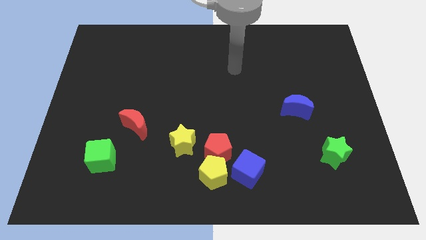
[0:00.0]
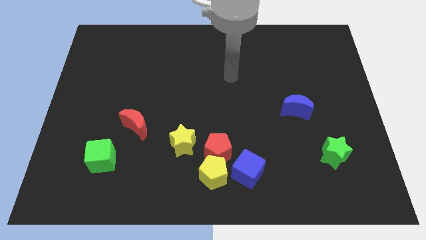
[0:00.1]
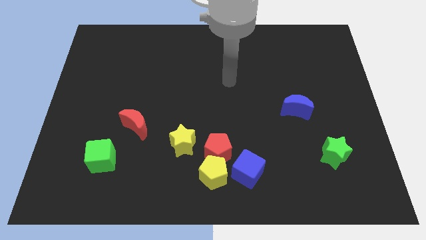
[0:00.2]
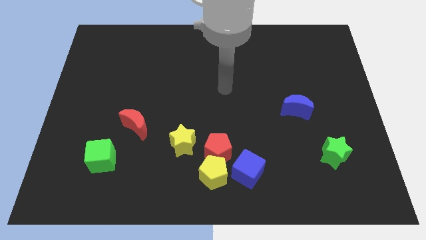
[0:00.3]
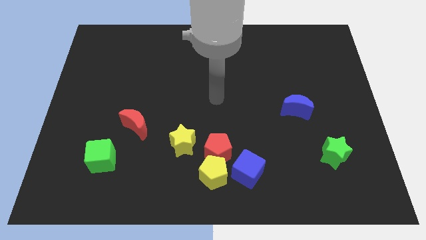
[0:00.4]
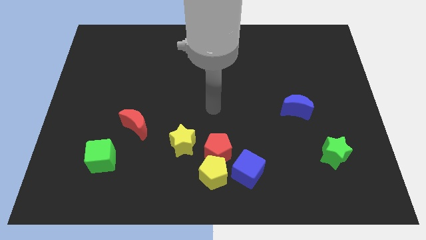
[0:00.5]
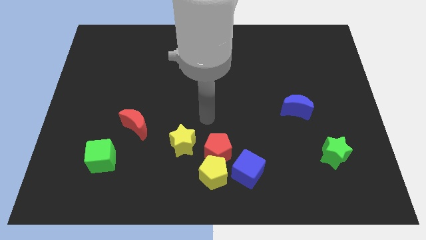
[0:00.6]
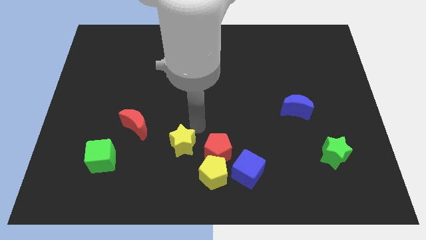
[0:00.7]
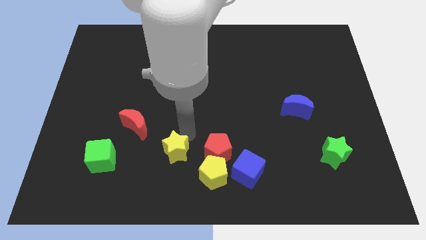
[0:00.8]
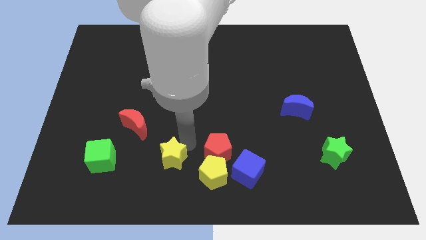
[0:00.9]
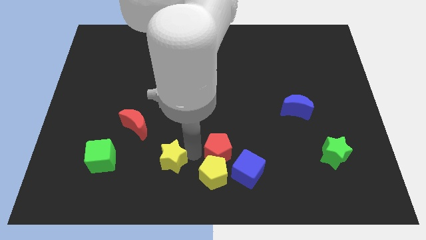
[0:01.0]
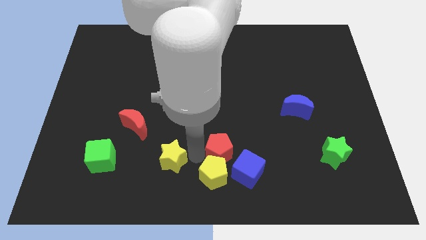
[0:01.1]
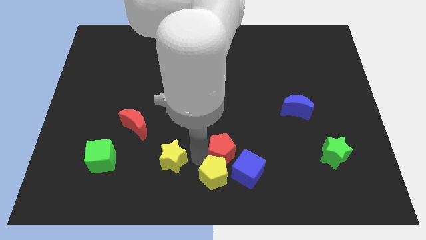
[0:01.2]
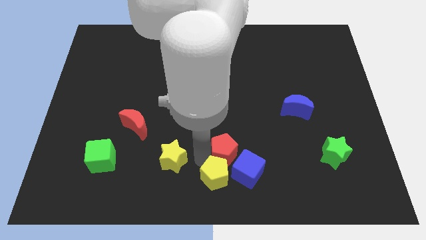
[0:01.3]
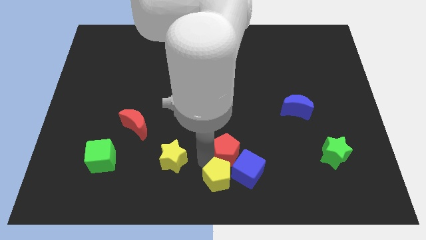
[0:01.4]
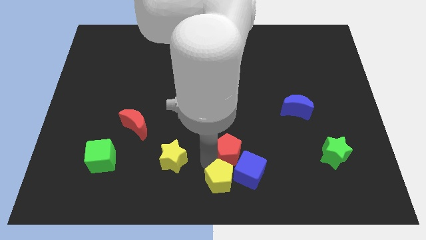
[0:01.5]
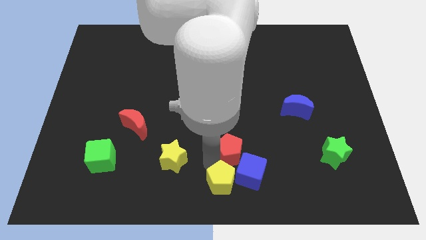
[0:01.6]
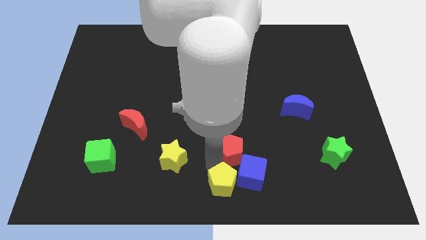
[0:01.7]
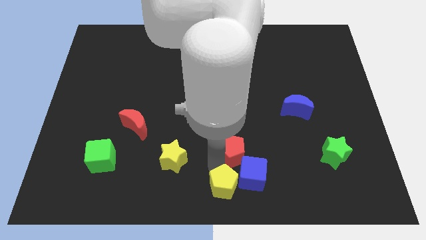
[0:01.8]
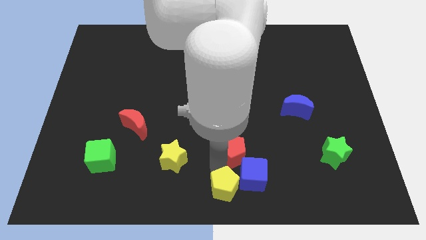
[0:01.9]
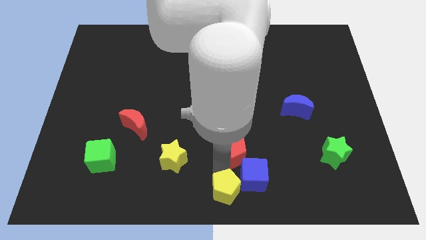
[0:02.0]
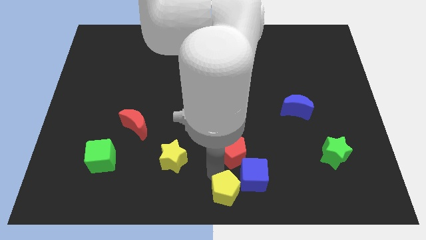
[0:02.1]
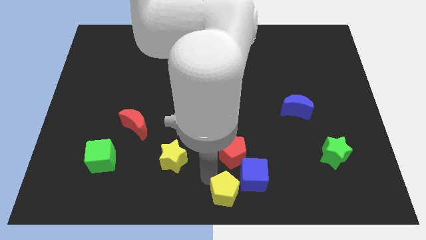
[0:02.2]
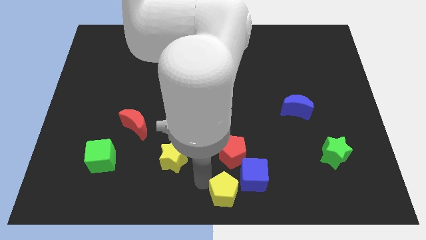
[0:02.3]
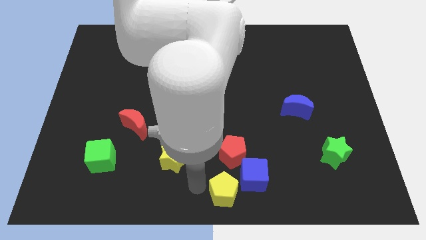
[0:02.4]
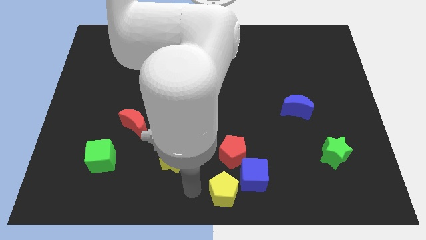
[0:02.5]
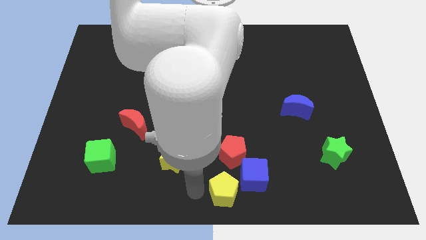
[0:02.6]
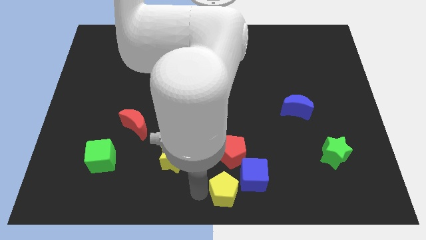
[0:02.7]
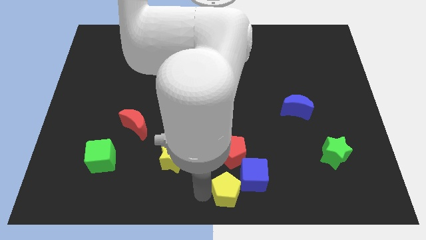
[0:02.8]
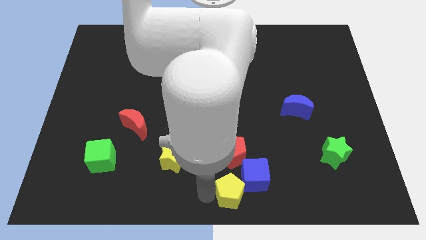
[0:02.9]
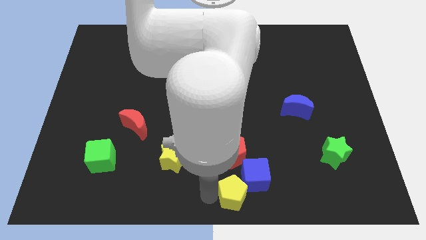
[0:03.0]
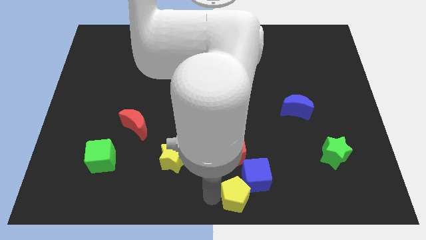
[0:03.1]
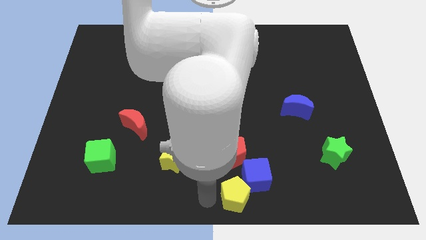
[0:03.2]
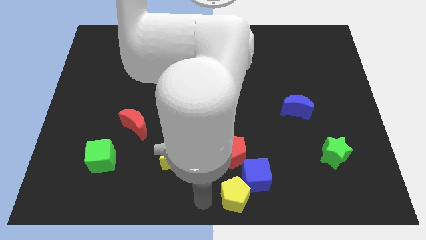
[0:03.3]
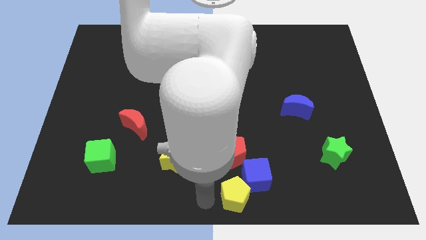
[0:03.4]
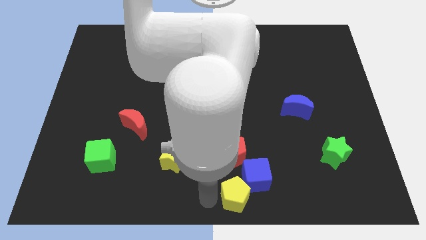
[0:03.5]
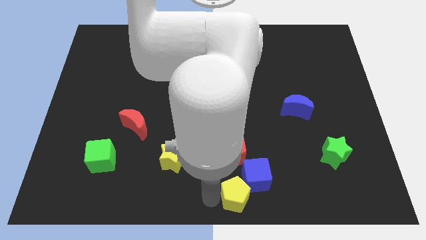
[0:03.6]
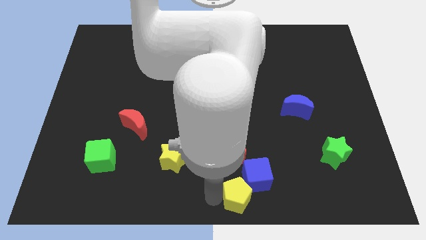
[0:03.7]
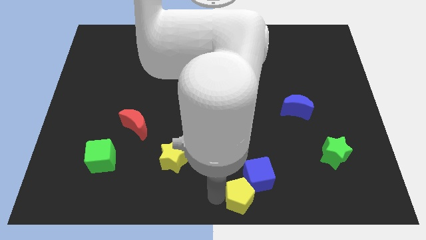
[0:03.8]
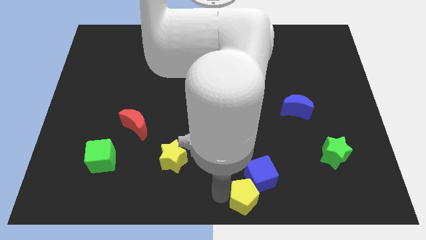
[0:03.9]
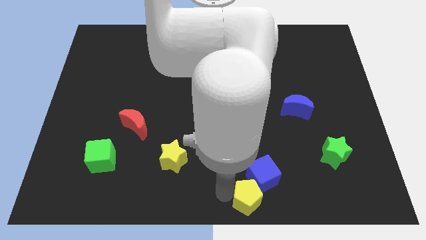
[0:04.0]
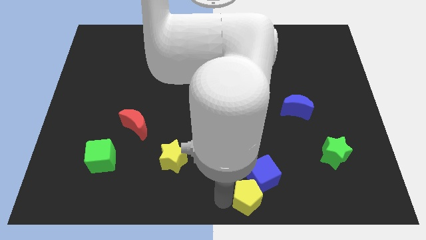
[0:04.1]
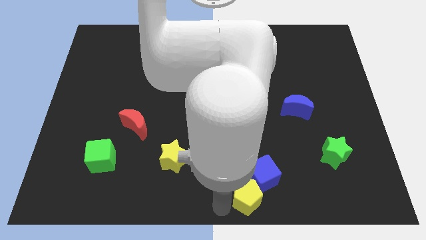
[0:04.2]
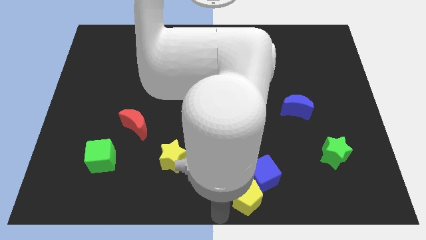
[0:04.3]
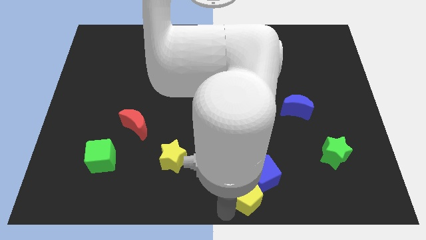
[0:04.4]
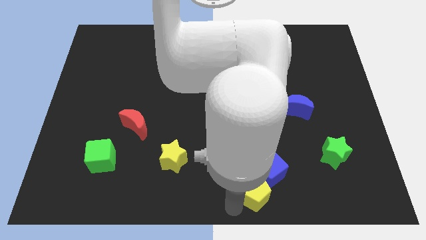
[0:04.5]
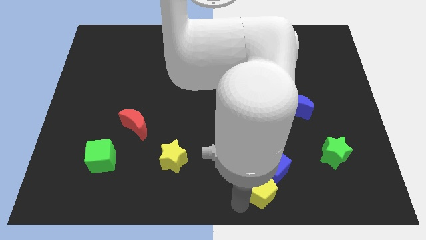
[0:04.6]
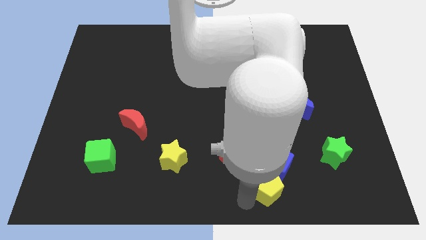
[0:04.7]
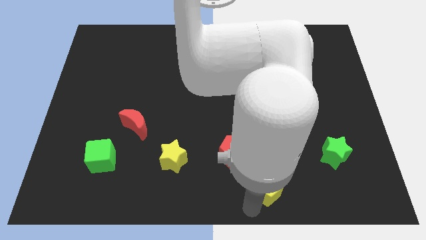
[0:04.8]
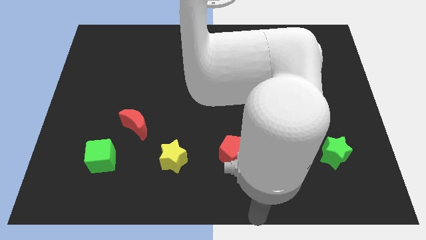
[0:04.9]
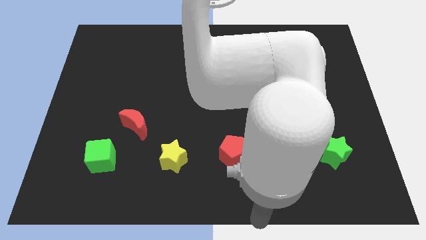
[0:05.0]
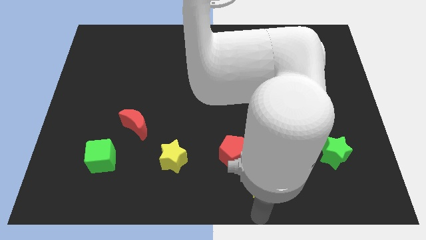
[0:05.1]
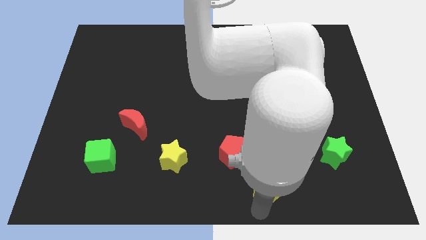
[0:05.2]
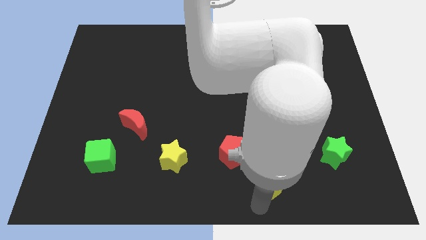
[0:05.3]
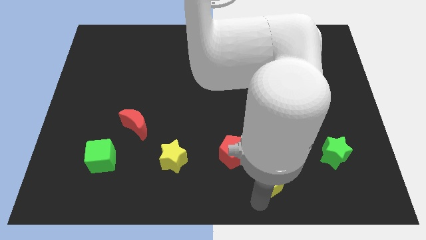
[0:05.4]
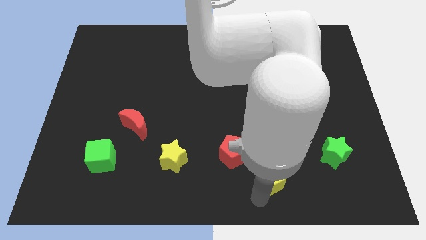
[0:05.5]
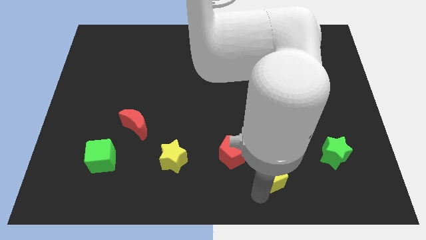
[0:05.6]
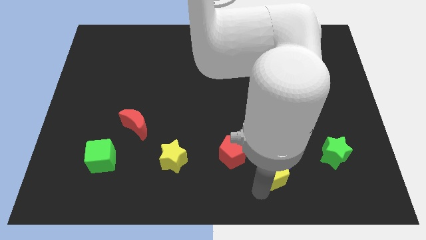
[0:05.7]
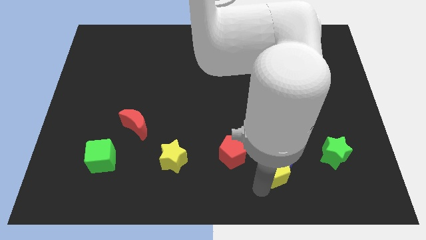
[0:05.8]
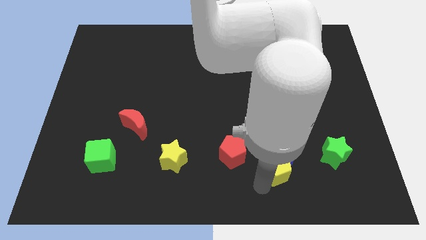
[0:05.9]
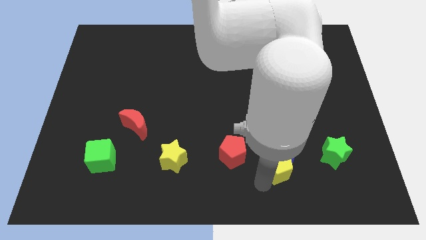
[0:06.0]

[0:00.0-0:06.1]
slightly push the yellow pentagon diagonally upwards and to the right

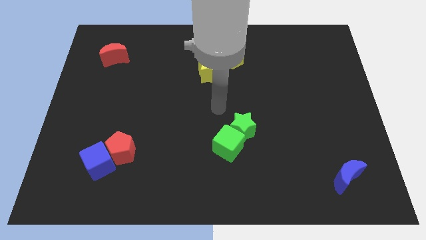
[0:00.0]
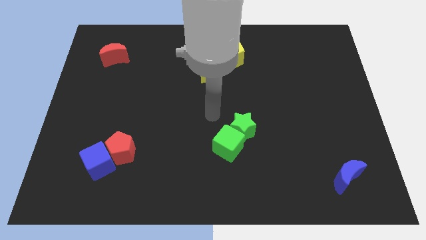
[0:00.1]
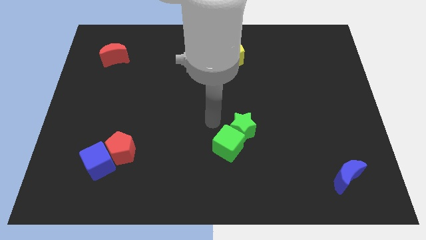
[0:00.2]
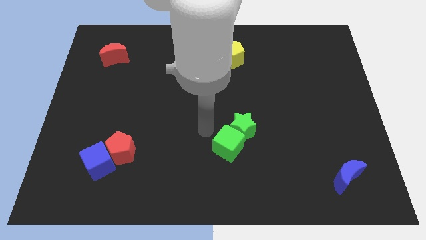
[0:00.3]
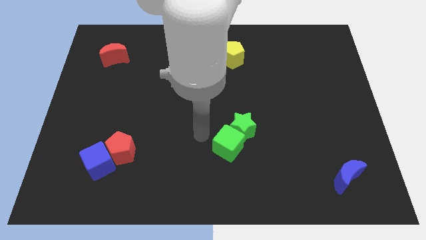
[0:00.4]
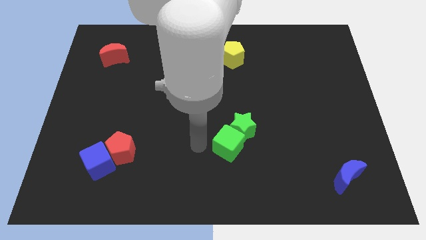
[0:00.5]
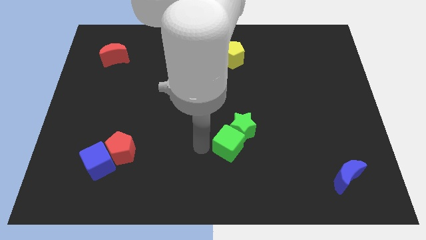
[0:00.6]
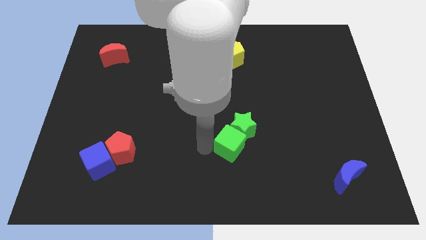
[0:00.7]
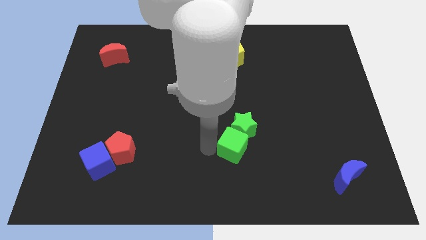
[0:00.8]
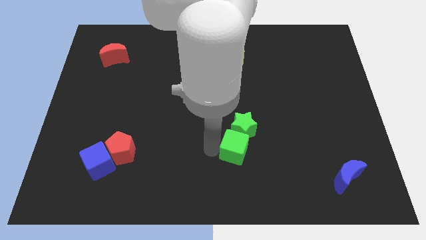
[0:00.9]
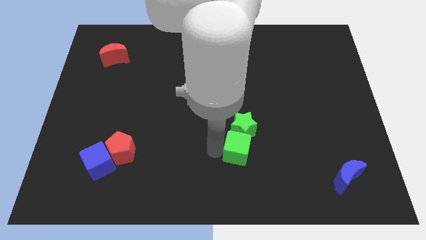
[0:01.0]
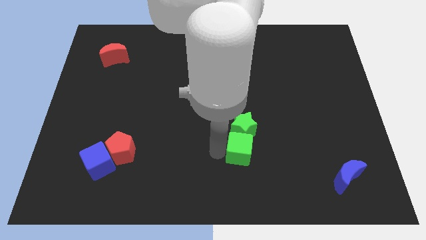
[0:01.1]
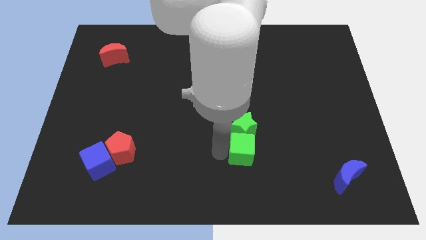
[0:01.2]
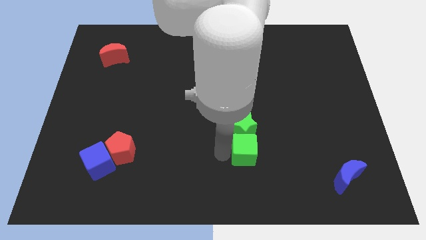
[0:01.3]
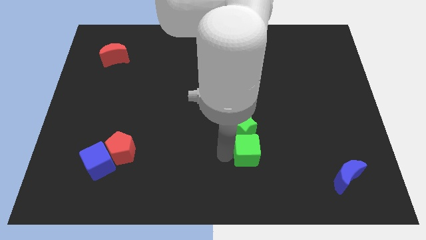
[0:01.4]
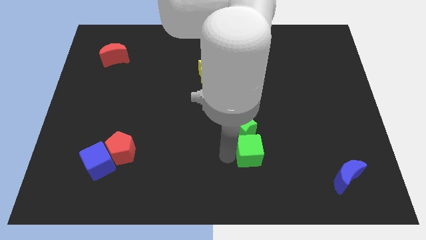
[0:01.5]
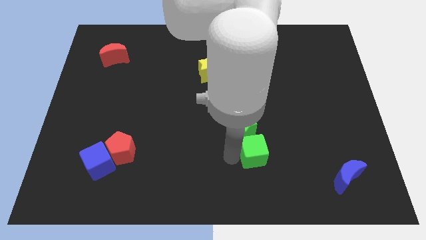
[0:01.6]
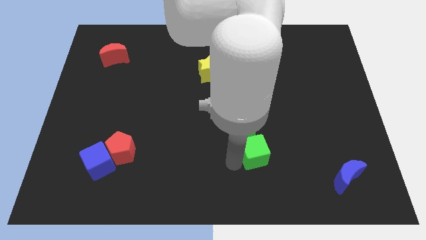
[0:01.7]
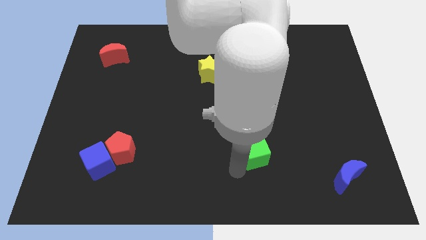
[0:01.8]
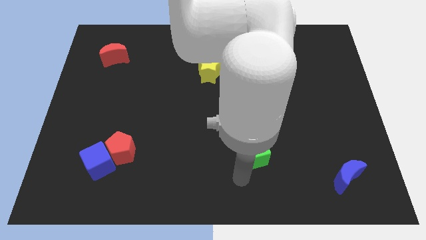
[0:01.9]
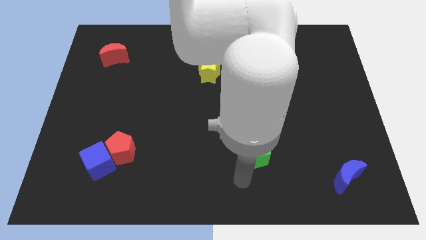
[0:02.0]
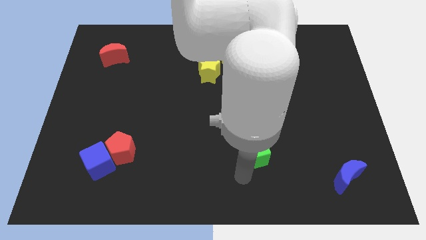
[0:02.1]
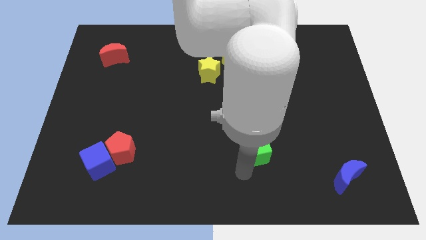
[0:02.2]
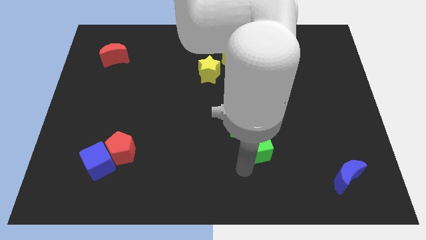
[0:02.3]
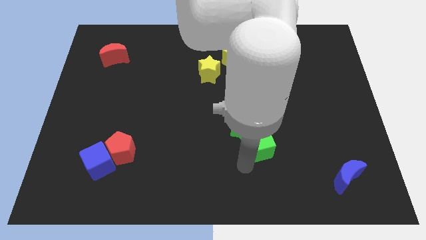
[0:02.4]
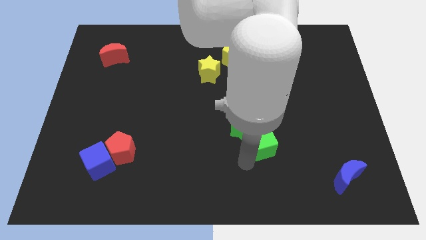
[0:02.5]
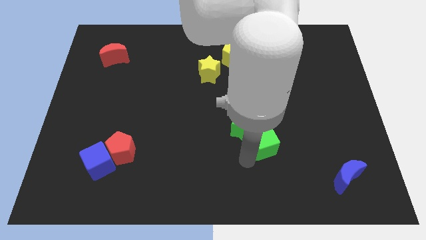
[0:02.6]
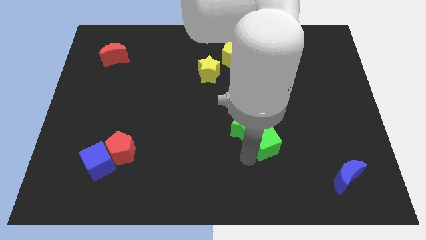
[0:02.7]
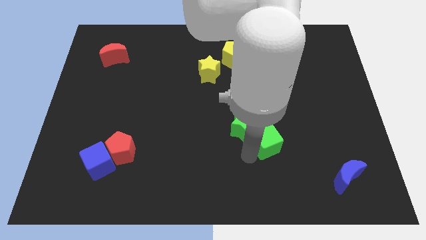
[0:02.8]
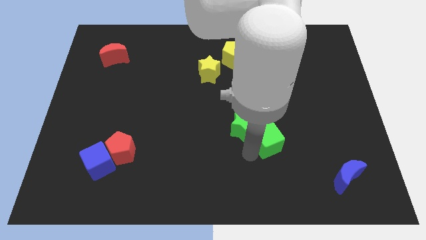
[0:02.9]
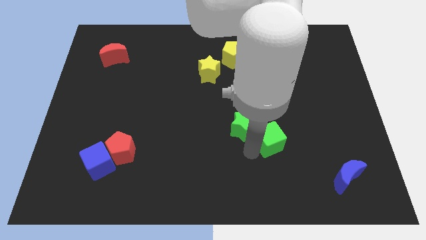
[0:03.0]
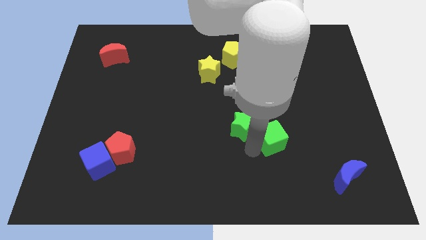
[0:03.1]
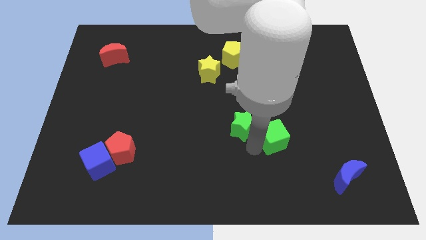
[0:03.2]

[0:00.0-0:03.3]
move the green cube somewhat upwards and to the right diagonally
